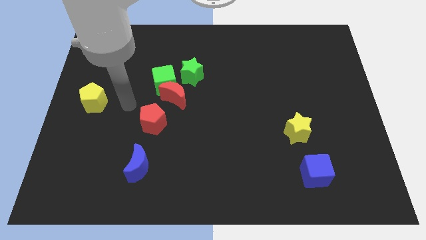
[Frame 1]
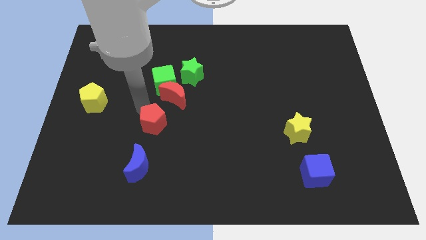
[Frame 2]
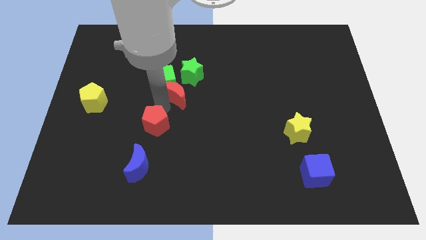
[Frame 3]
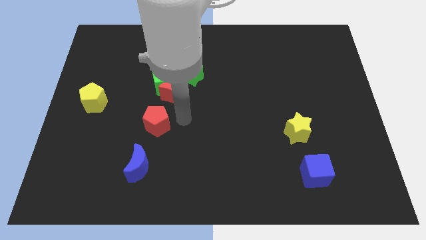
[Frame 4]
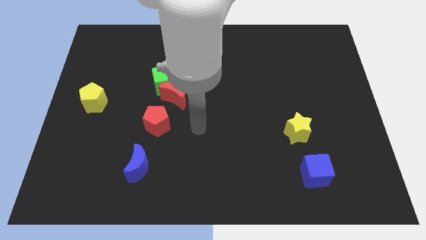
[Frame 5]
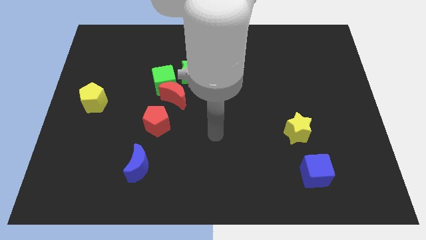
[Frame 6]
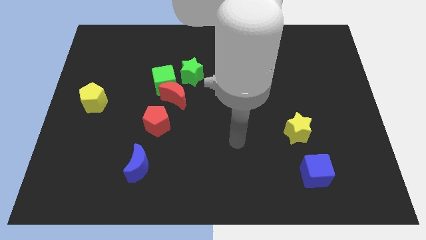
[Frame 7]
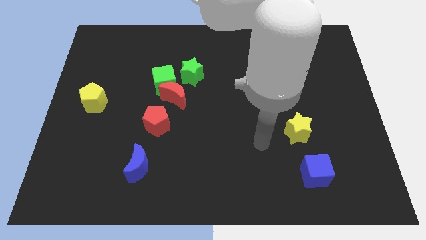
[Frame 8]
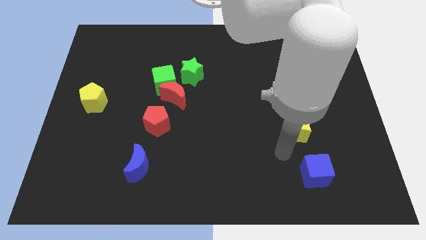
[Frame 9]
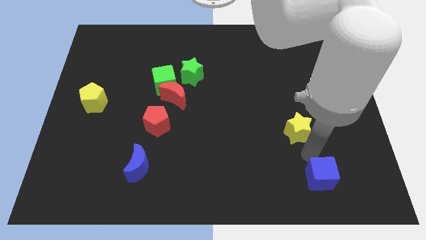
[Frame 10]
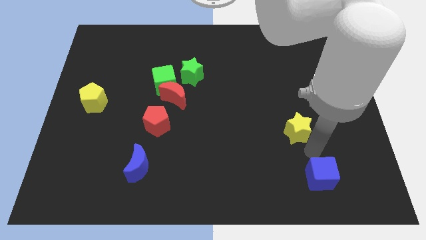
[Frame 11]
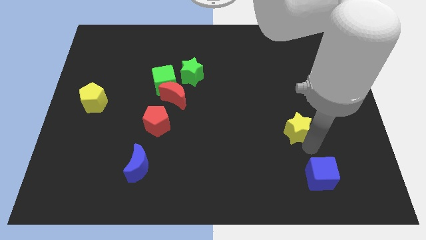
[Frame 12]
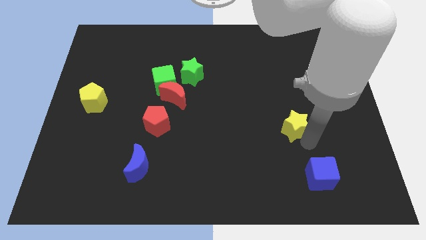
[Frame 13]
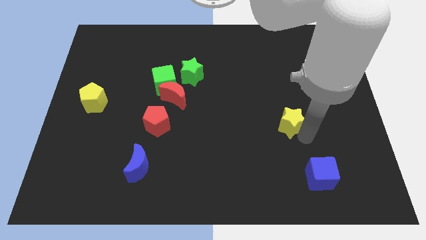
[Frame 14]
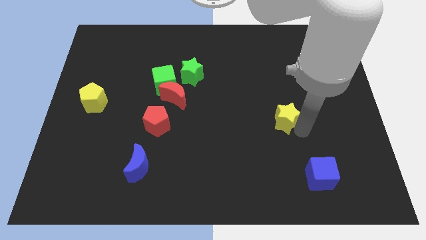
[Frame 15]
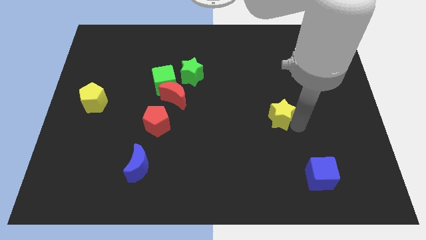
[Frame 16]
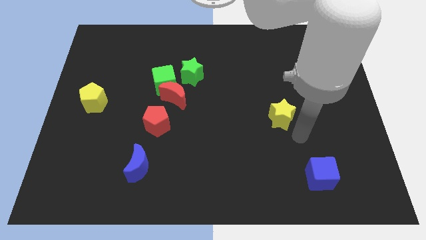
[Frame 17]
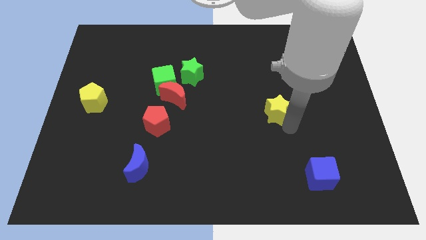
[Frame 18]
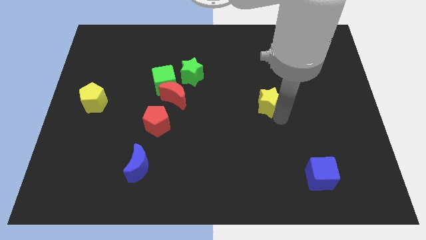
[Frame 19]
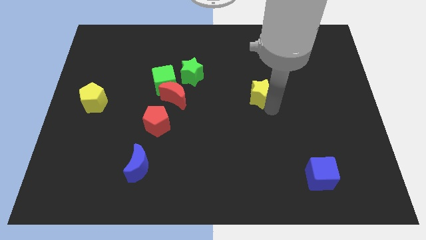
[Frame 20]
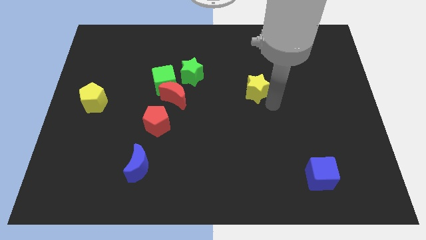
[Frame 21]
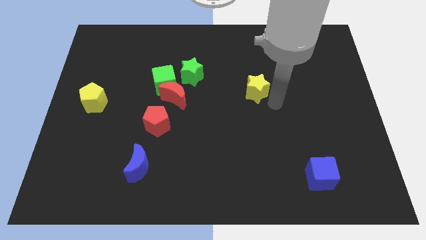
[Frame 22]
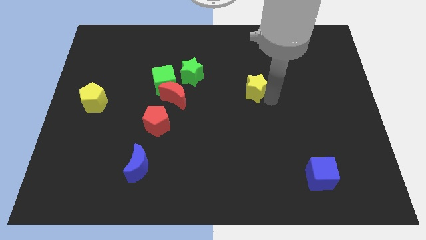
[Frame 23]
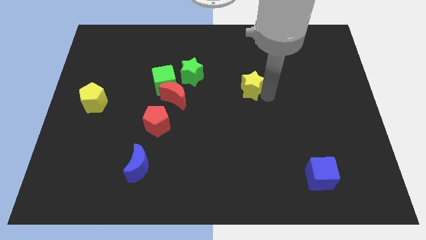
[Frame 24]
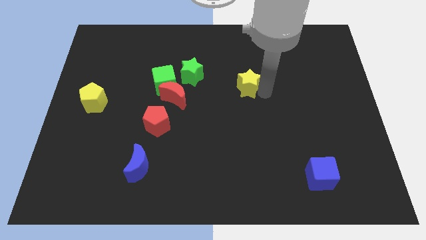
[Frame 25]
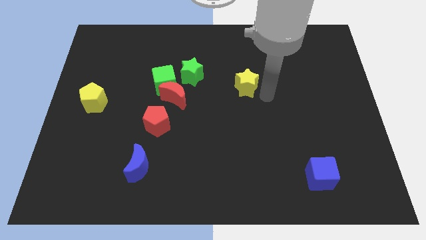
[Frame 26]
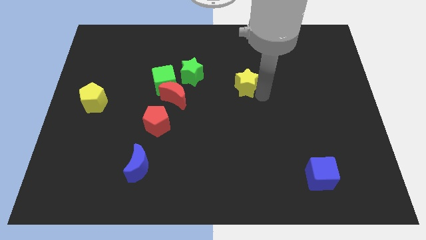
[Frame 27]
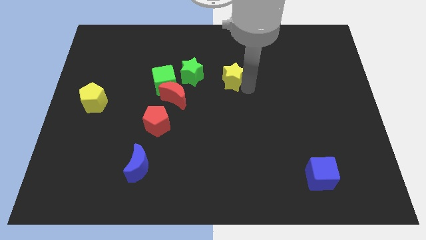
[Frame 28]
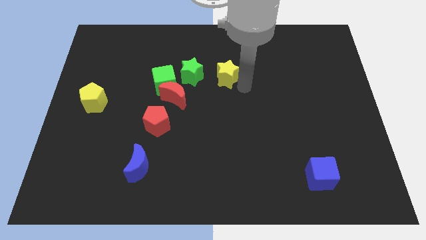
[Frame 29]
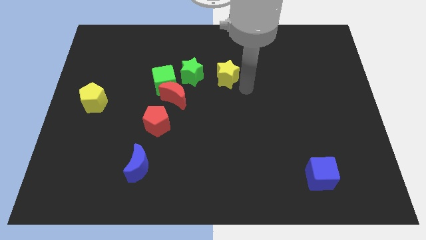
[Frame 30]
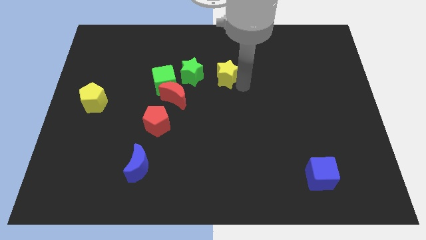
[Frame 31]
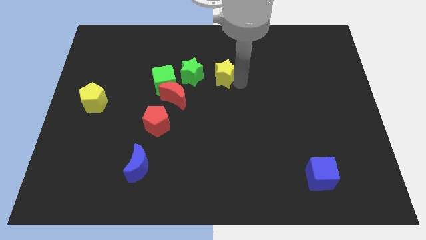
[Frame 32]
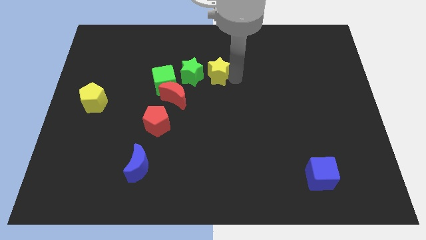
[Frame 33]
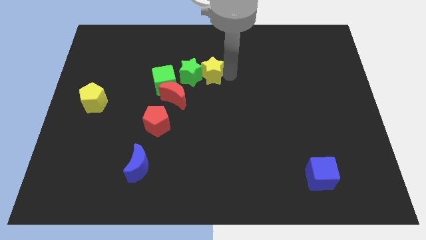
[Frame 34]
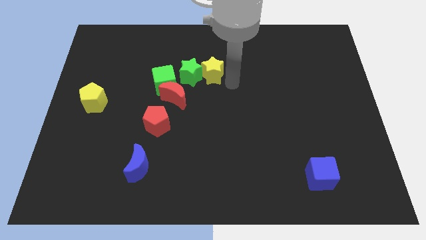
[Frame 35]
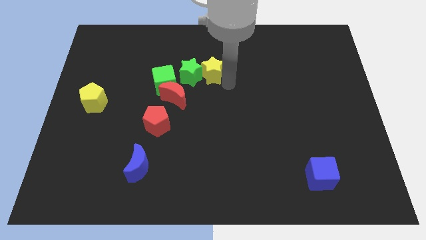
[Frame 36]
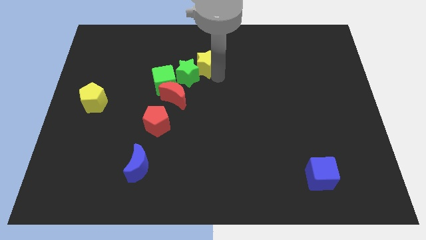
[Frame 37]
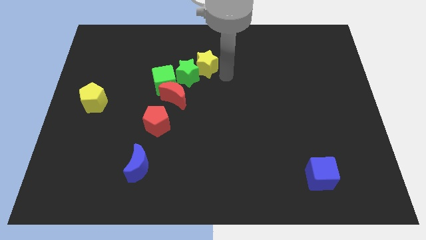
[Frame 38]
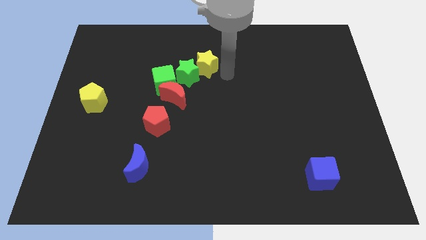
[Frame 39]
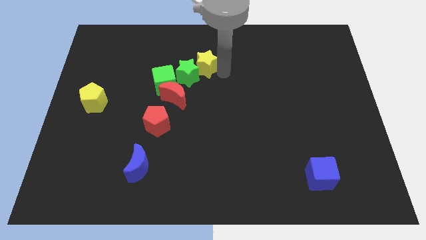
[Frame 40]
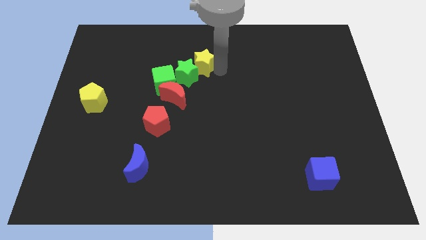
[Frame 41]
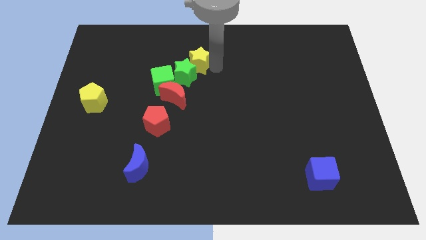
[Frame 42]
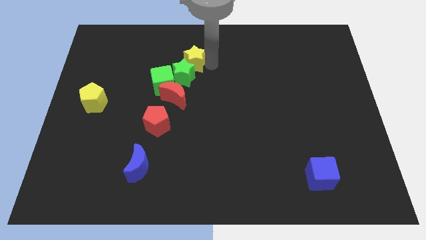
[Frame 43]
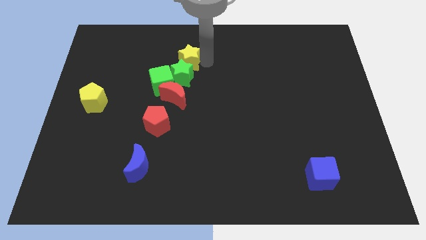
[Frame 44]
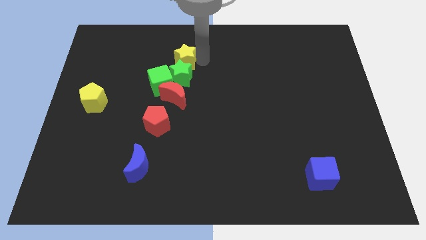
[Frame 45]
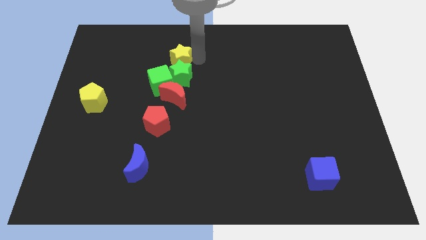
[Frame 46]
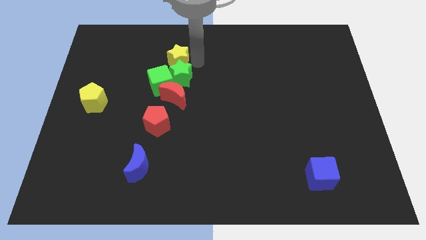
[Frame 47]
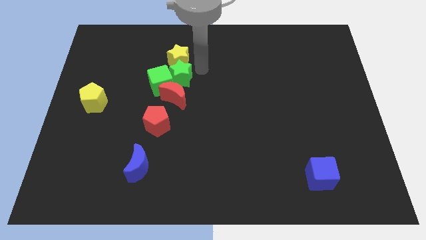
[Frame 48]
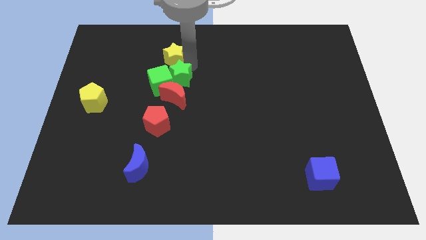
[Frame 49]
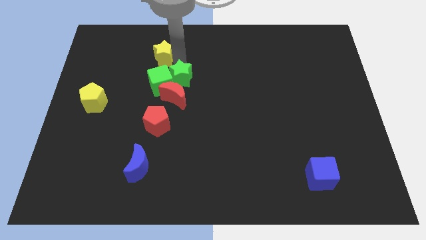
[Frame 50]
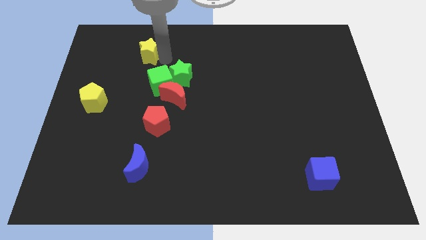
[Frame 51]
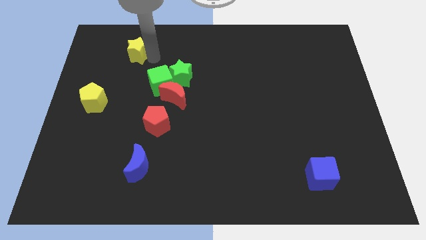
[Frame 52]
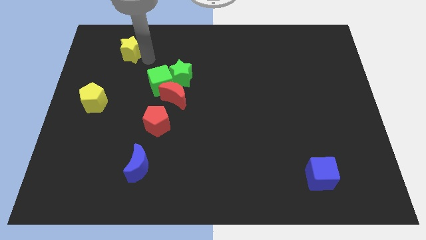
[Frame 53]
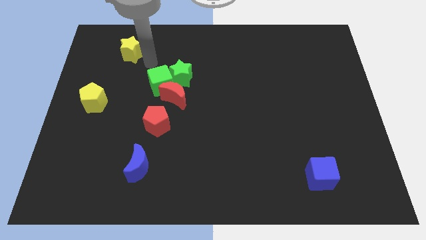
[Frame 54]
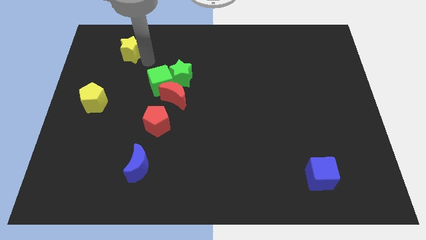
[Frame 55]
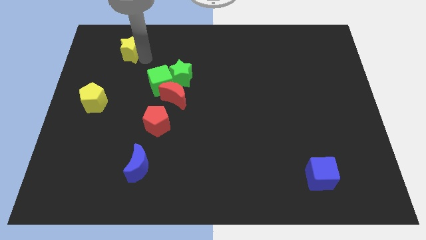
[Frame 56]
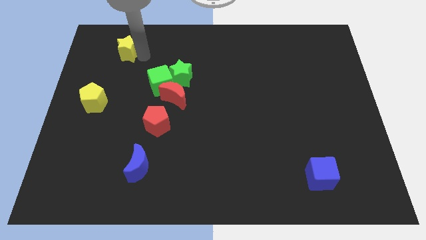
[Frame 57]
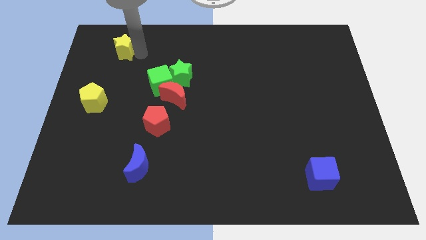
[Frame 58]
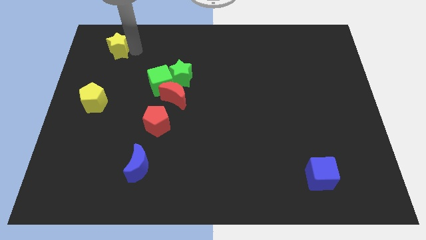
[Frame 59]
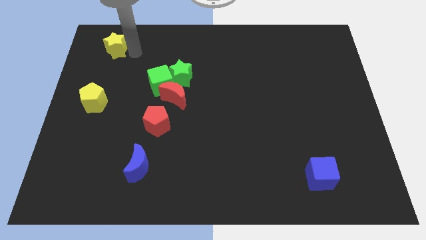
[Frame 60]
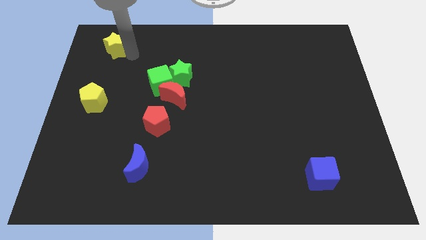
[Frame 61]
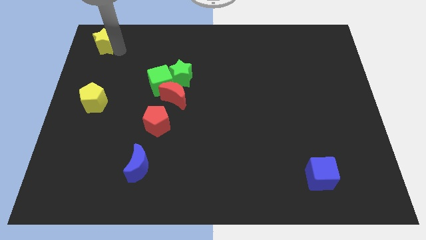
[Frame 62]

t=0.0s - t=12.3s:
put the yellow star to the top left
